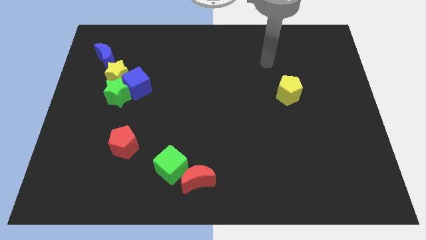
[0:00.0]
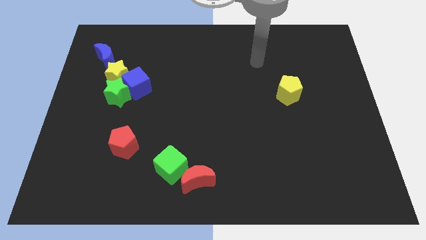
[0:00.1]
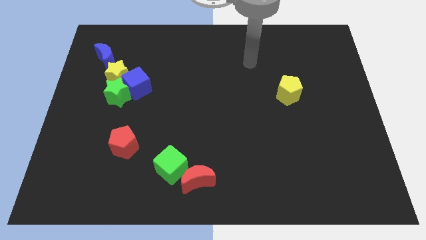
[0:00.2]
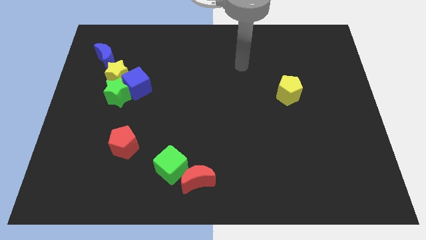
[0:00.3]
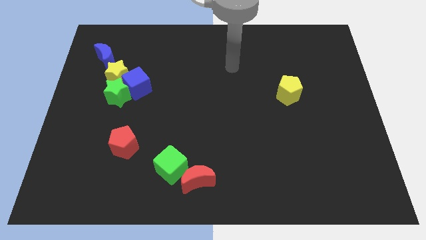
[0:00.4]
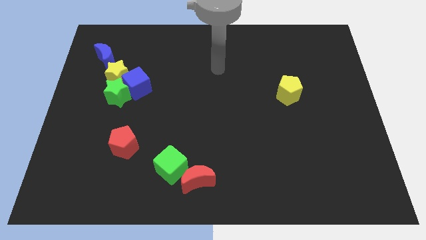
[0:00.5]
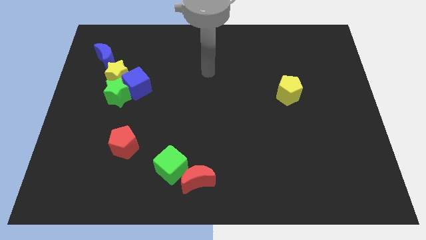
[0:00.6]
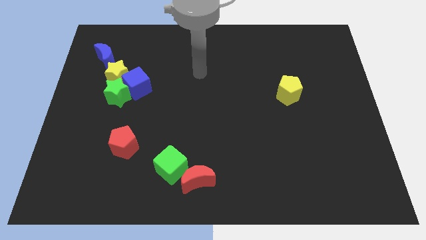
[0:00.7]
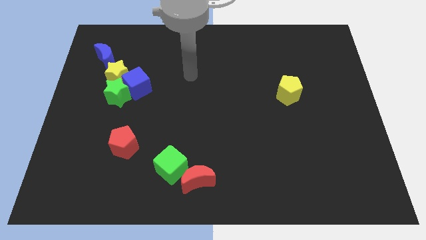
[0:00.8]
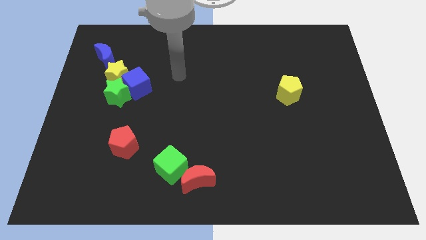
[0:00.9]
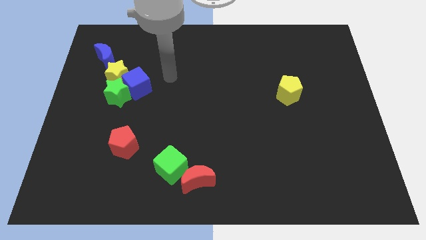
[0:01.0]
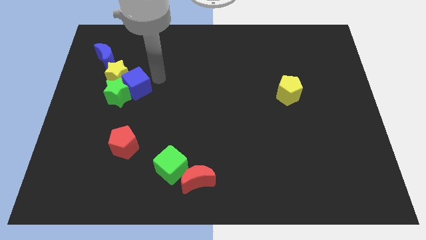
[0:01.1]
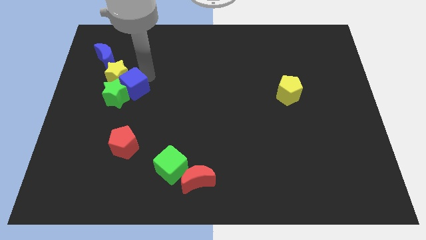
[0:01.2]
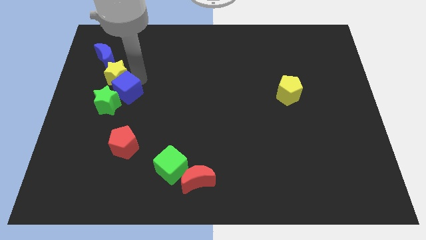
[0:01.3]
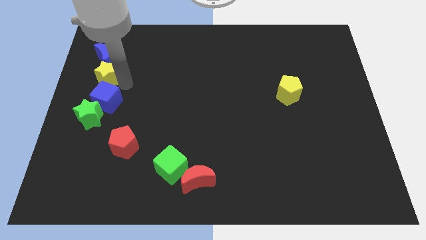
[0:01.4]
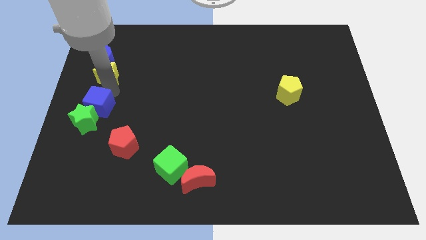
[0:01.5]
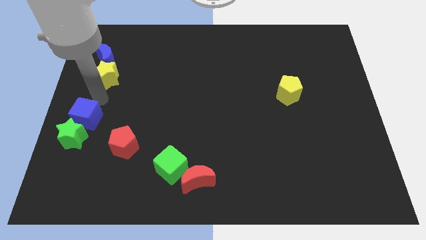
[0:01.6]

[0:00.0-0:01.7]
separate the green star from the blue cube and yellow star

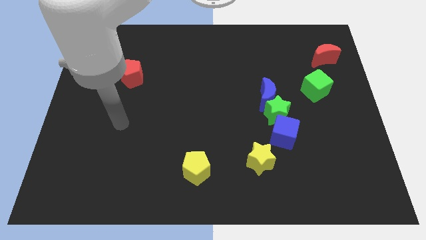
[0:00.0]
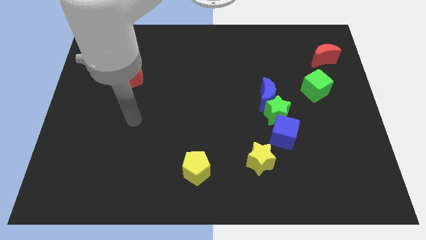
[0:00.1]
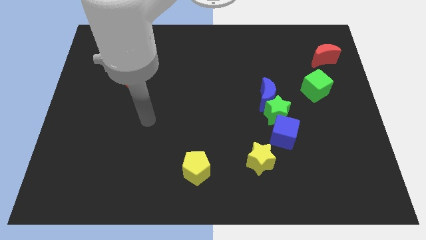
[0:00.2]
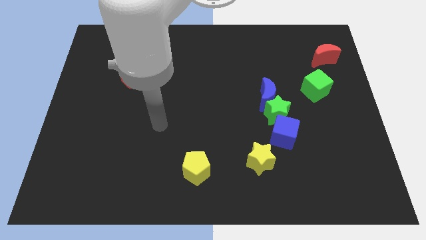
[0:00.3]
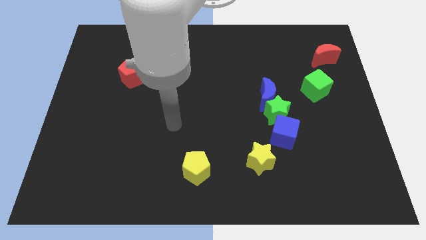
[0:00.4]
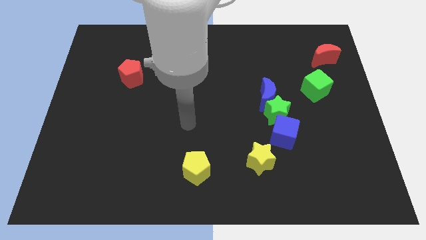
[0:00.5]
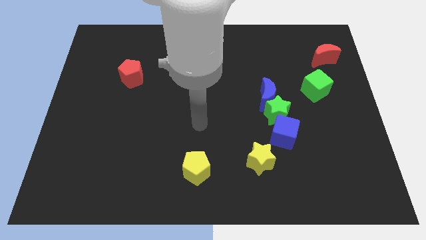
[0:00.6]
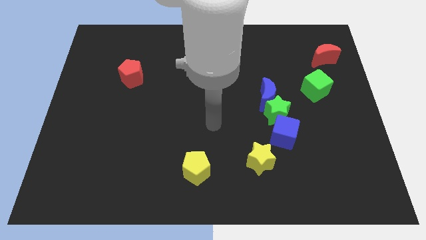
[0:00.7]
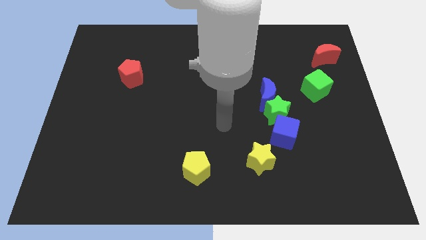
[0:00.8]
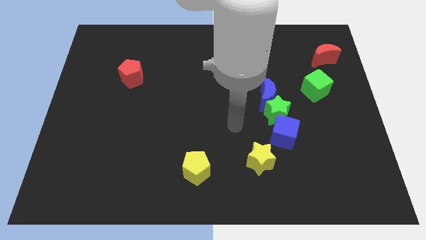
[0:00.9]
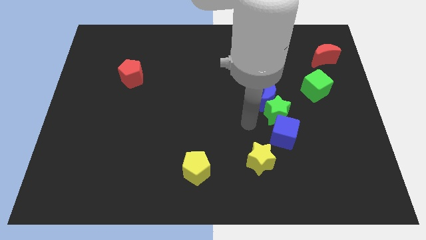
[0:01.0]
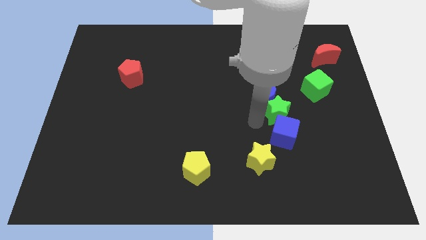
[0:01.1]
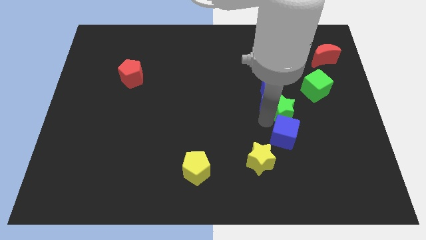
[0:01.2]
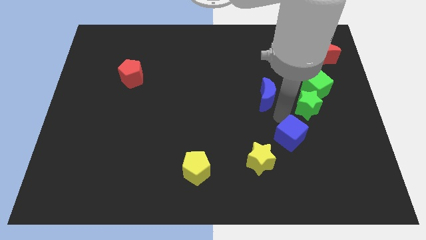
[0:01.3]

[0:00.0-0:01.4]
separate the blue moon from the green star

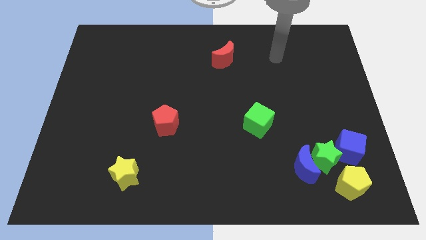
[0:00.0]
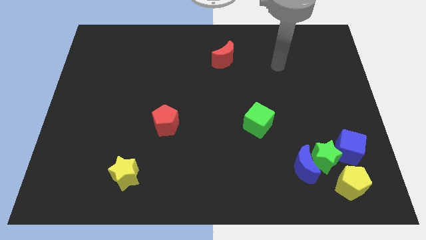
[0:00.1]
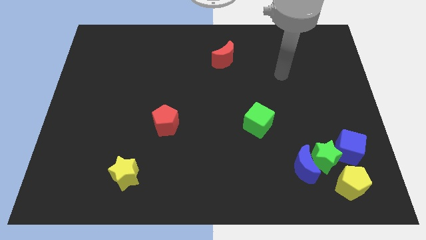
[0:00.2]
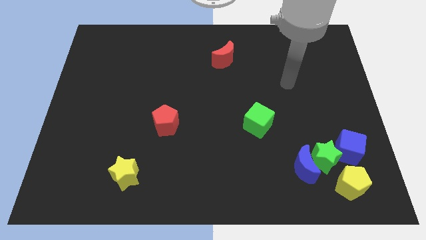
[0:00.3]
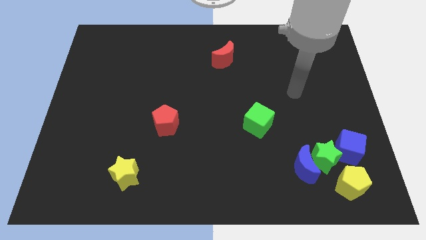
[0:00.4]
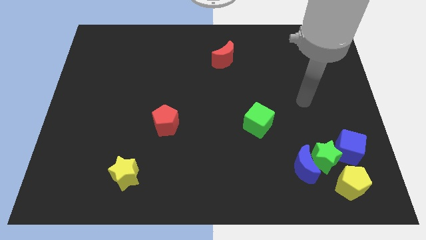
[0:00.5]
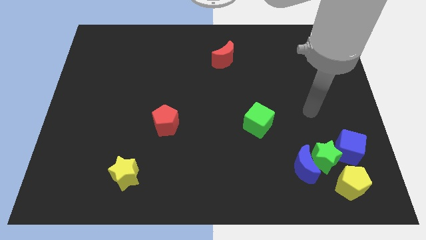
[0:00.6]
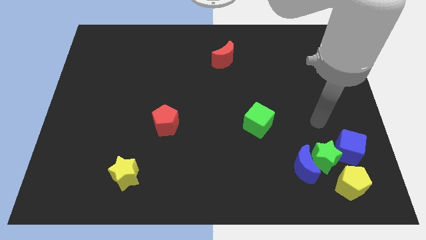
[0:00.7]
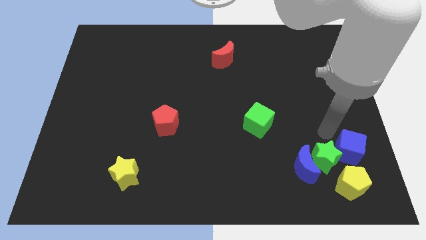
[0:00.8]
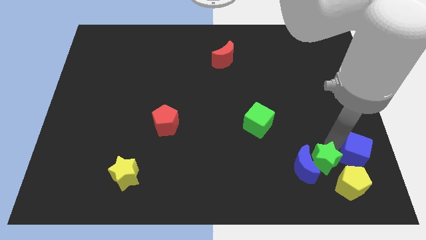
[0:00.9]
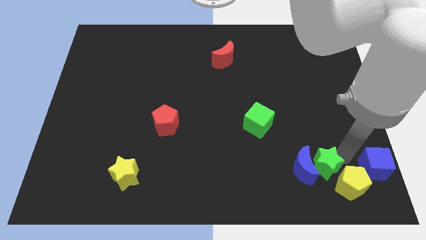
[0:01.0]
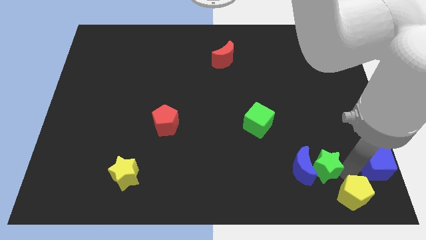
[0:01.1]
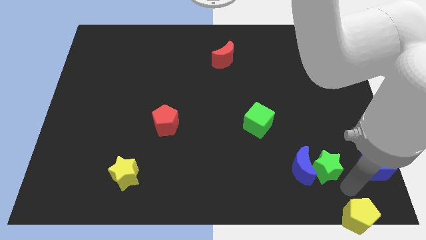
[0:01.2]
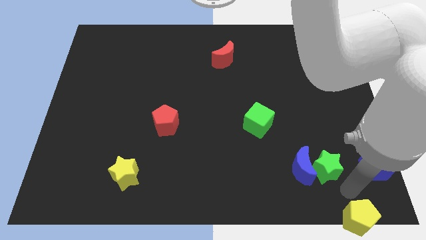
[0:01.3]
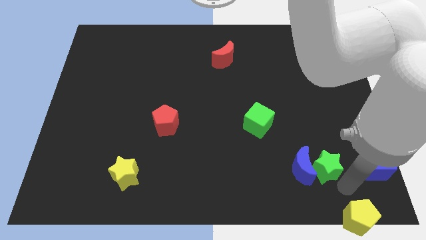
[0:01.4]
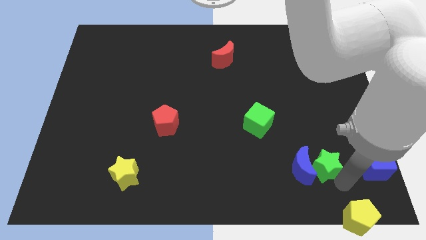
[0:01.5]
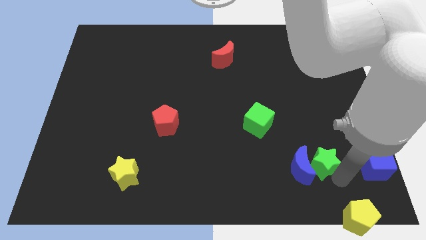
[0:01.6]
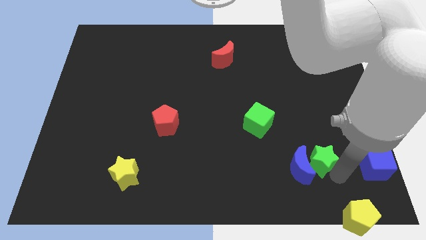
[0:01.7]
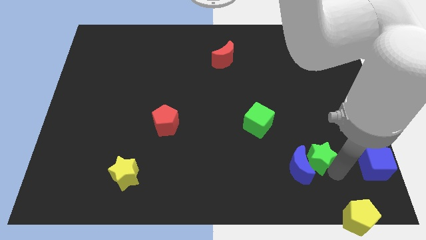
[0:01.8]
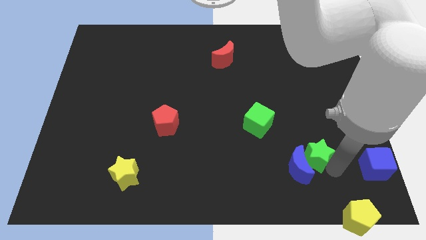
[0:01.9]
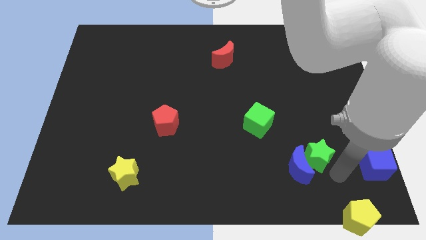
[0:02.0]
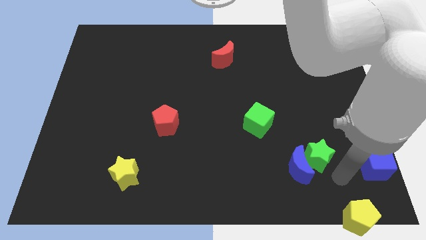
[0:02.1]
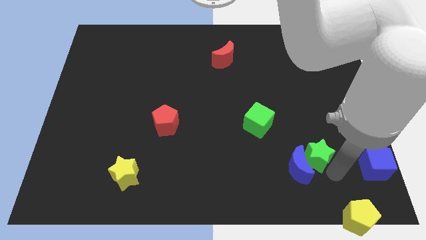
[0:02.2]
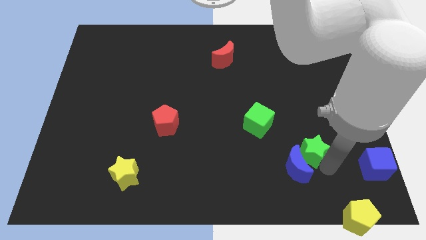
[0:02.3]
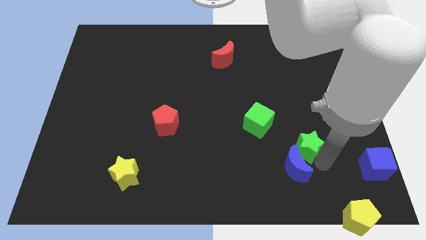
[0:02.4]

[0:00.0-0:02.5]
move the green star away from the blue moon, blue cube, and yellow pentagon

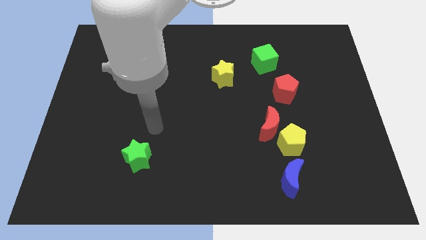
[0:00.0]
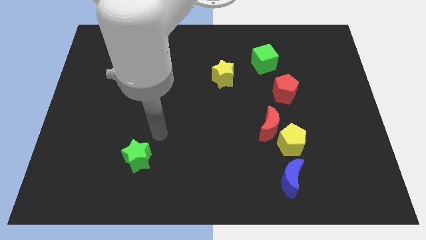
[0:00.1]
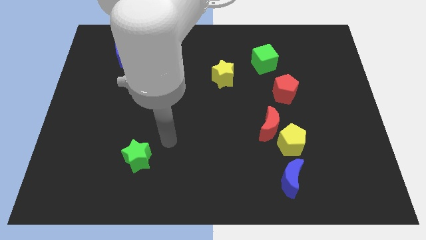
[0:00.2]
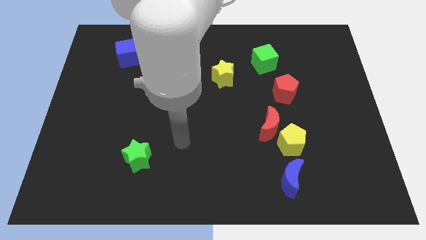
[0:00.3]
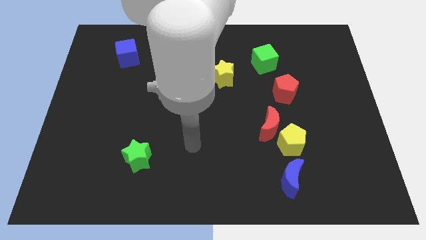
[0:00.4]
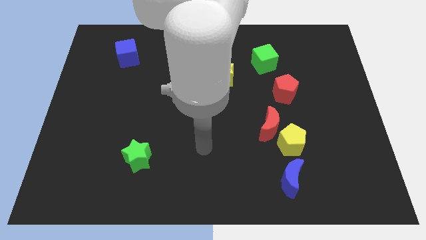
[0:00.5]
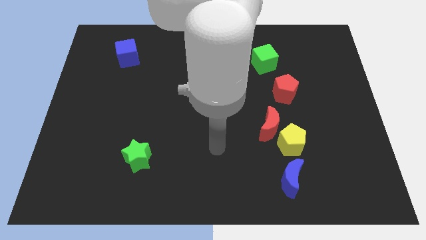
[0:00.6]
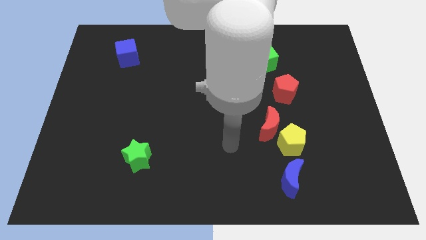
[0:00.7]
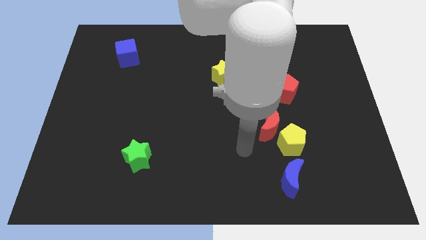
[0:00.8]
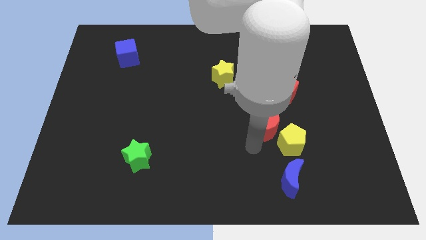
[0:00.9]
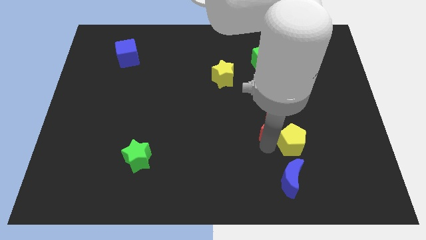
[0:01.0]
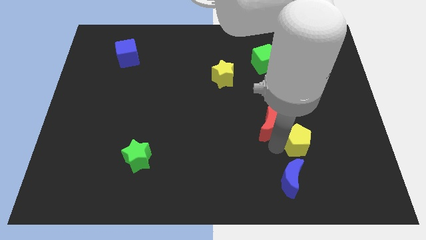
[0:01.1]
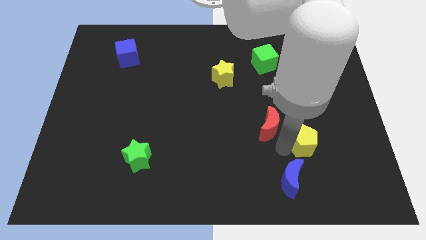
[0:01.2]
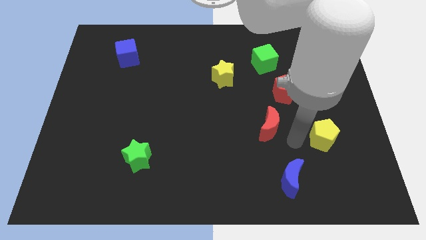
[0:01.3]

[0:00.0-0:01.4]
move the red moon away from the yellow pentagon

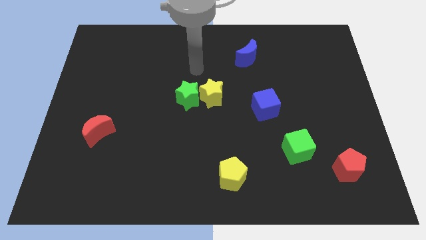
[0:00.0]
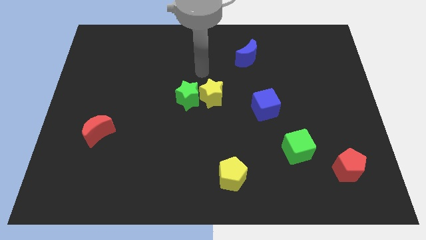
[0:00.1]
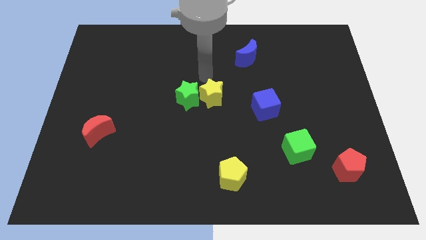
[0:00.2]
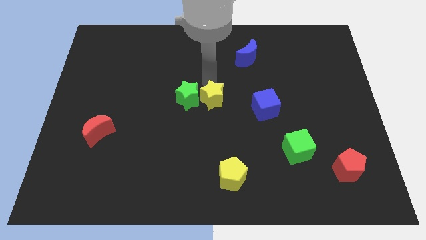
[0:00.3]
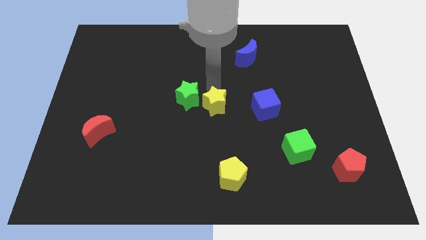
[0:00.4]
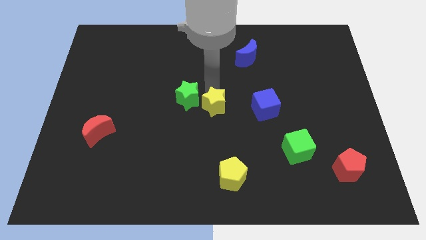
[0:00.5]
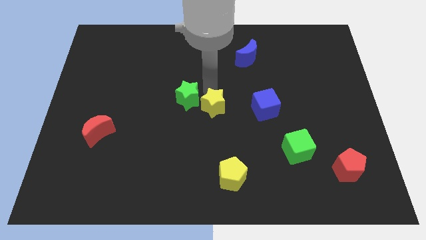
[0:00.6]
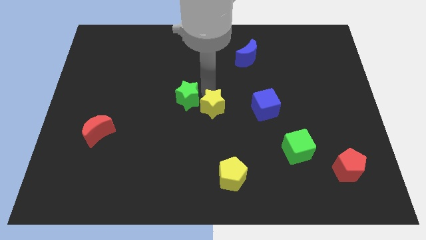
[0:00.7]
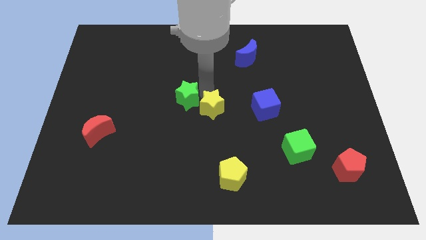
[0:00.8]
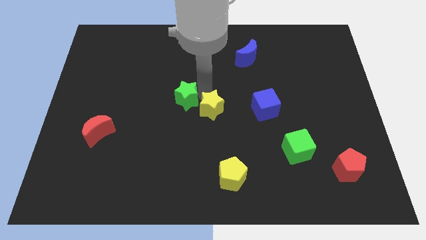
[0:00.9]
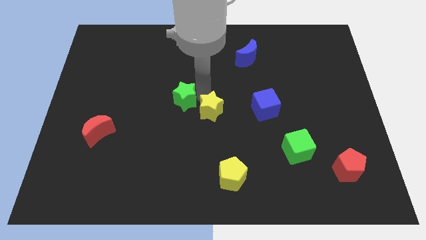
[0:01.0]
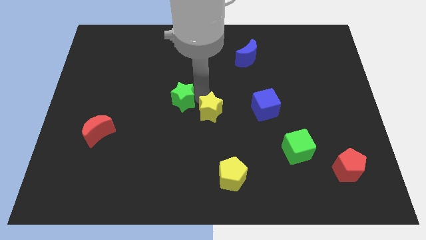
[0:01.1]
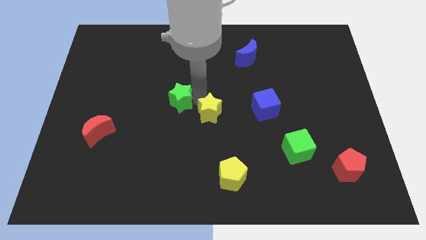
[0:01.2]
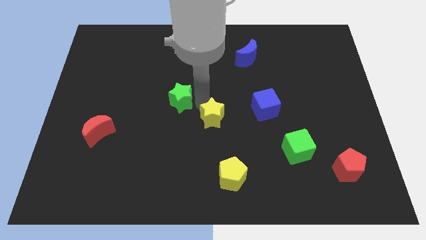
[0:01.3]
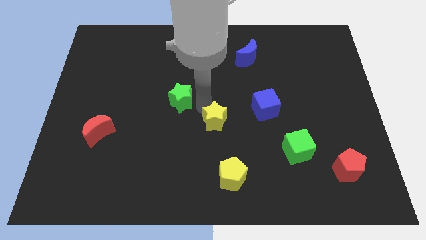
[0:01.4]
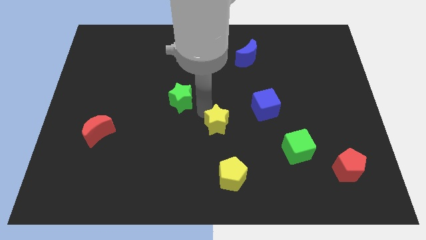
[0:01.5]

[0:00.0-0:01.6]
pull the green star apart from the yellow star

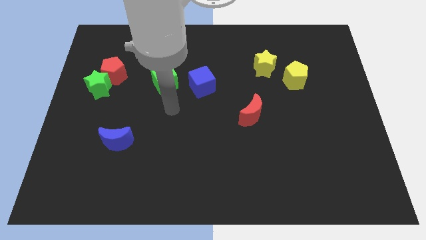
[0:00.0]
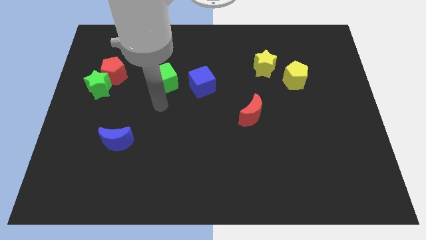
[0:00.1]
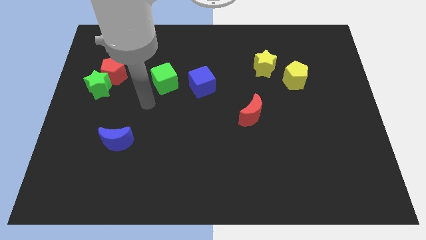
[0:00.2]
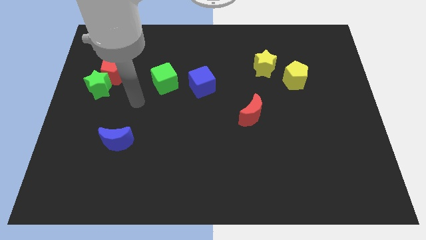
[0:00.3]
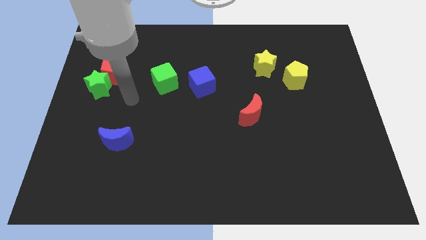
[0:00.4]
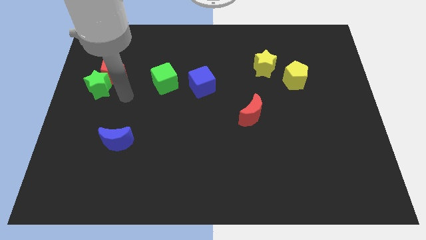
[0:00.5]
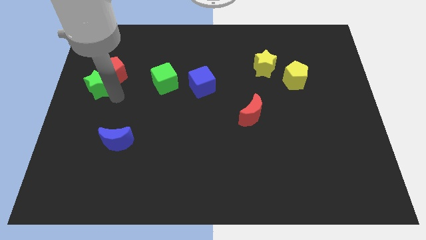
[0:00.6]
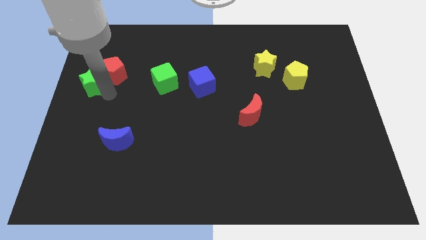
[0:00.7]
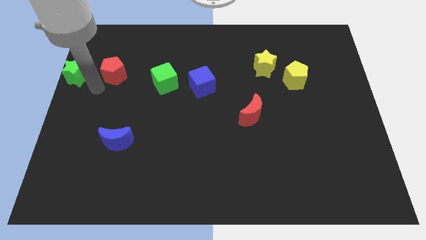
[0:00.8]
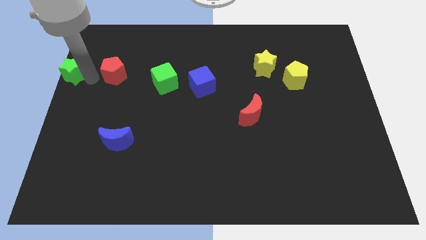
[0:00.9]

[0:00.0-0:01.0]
pull the red pentagon apart from the green star
